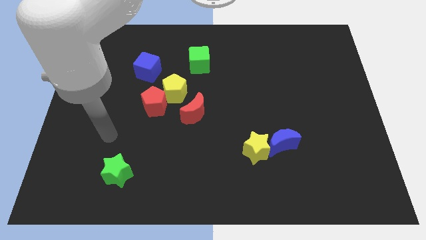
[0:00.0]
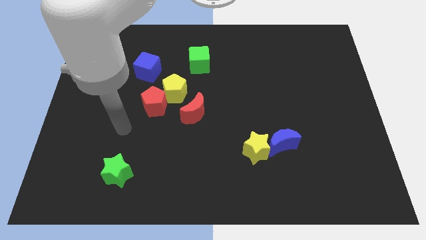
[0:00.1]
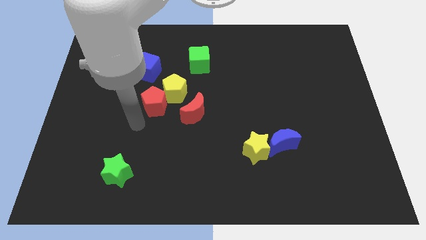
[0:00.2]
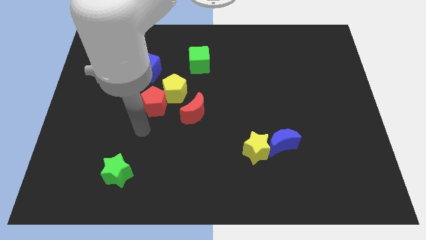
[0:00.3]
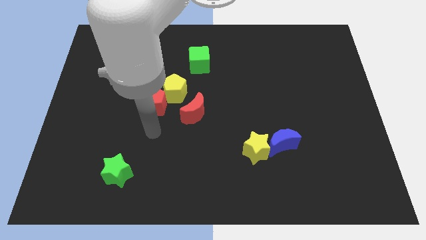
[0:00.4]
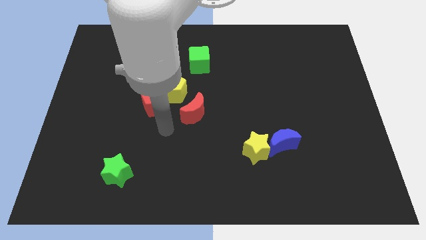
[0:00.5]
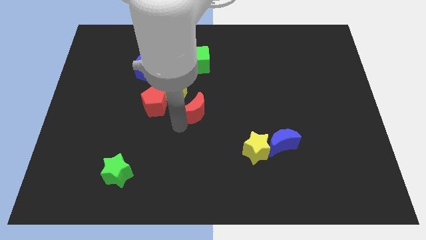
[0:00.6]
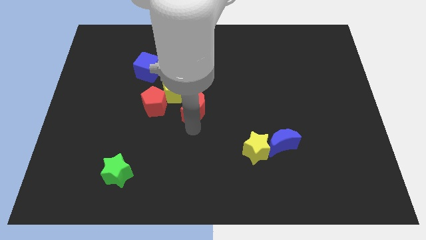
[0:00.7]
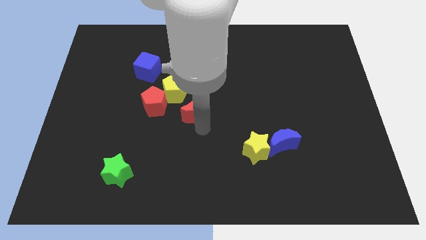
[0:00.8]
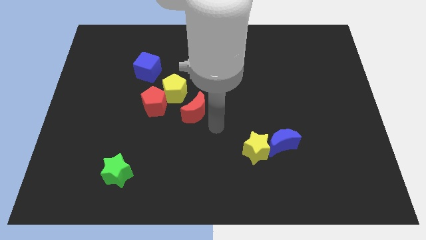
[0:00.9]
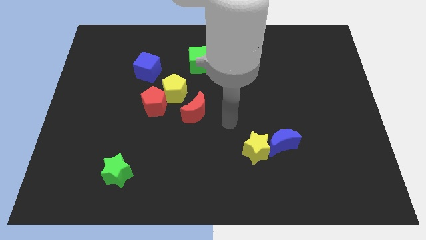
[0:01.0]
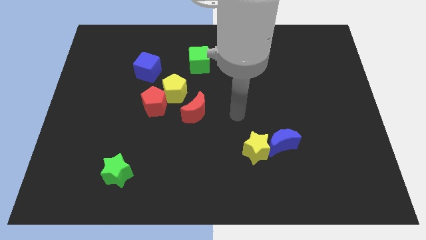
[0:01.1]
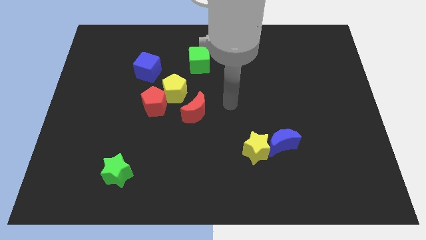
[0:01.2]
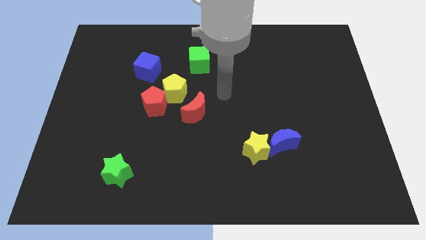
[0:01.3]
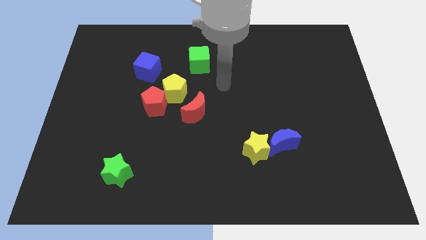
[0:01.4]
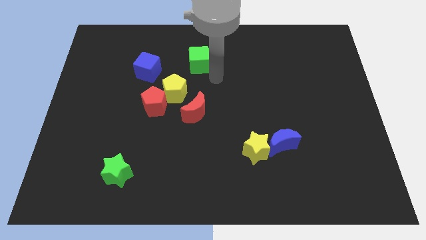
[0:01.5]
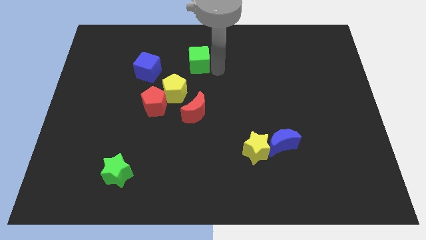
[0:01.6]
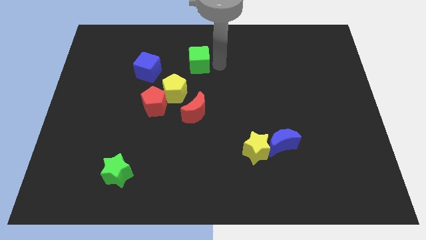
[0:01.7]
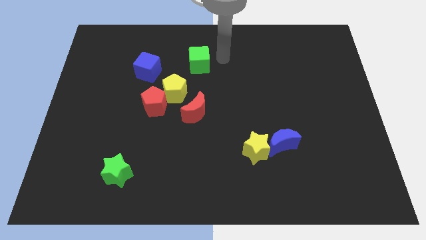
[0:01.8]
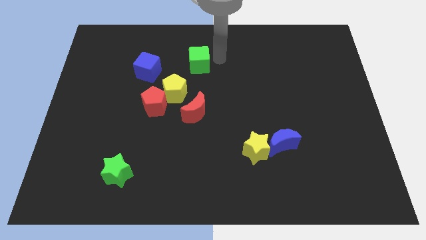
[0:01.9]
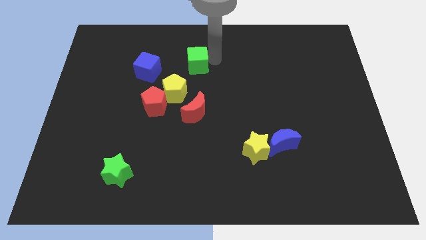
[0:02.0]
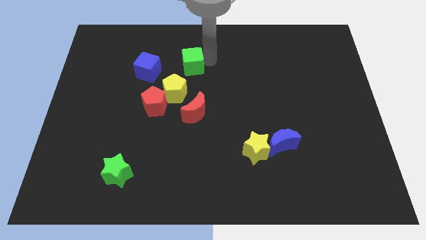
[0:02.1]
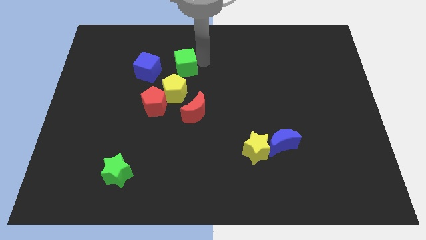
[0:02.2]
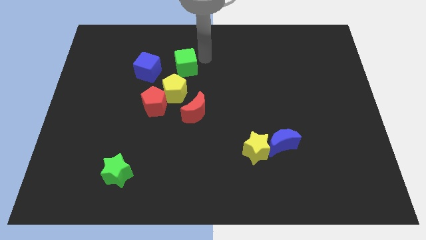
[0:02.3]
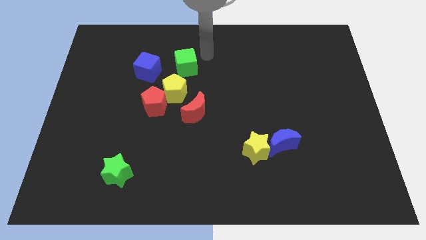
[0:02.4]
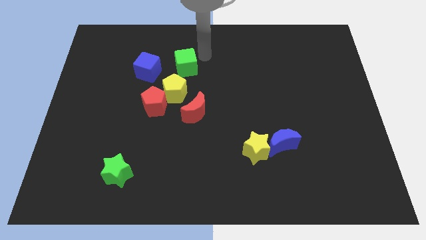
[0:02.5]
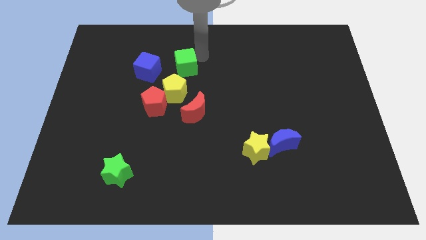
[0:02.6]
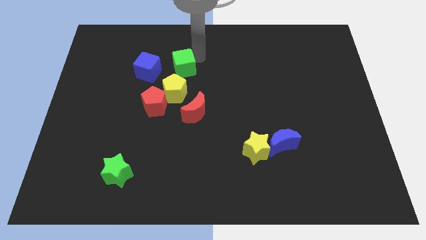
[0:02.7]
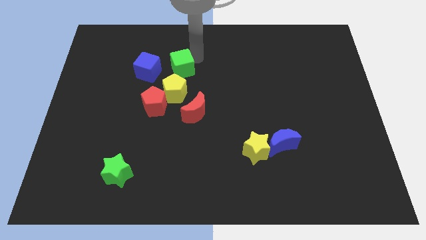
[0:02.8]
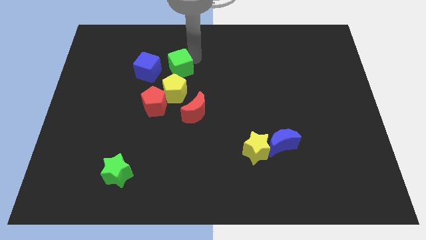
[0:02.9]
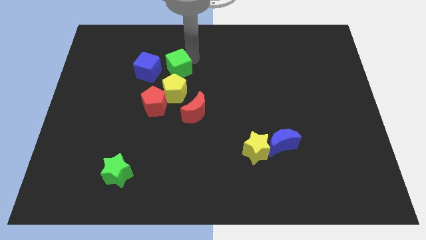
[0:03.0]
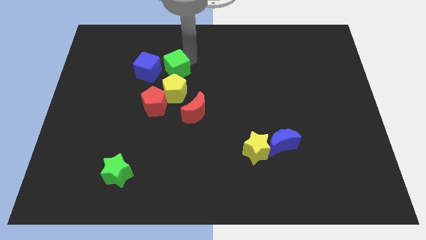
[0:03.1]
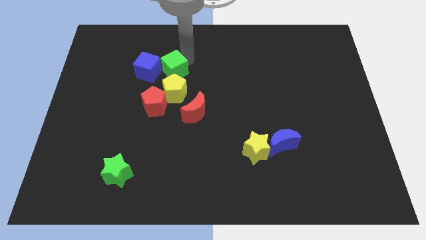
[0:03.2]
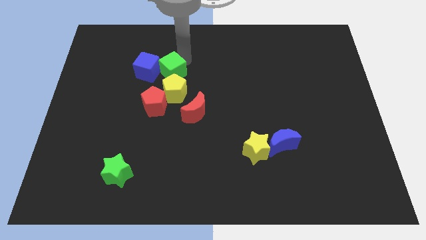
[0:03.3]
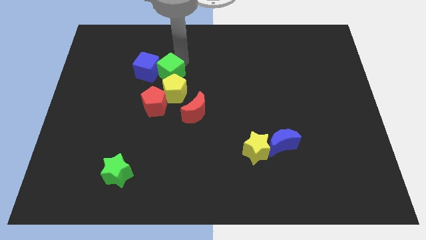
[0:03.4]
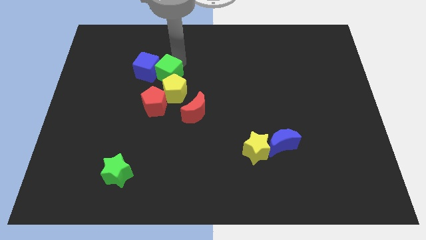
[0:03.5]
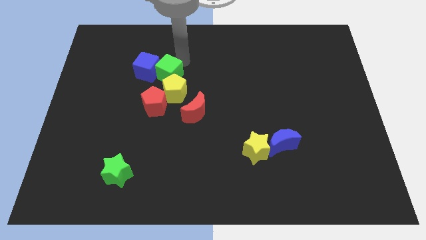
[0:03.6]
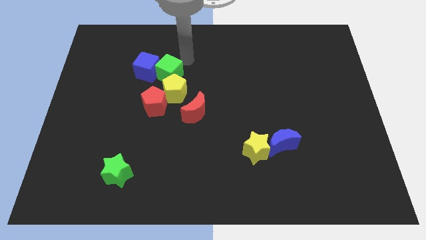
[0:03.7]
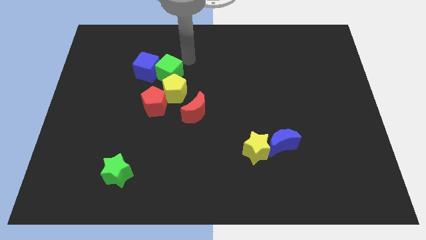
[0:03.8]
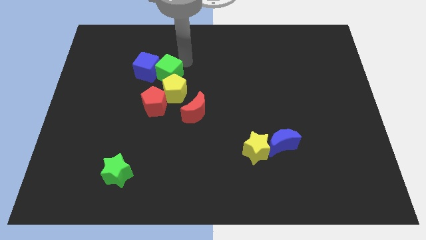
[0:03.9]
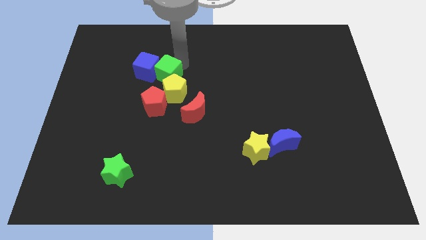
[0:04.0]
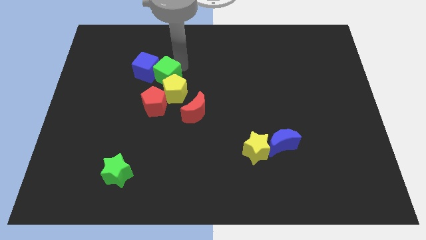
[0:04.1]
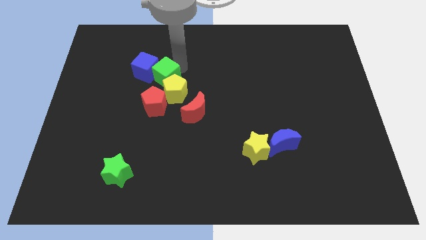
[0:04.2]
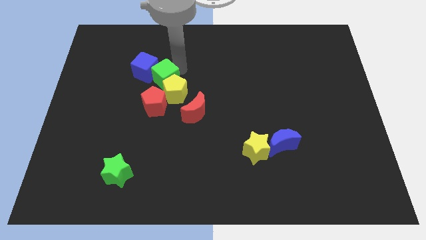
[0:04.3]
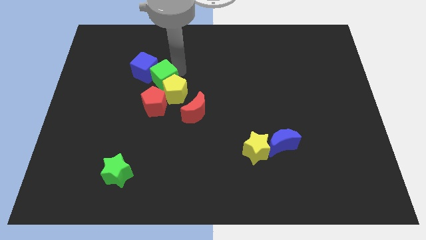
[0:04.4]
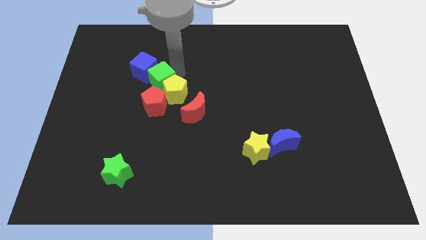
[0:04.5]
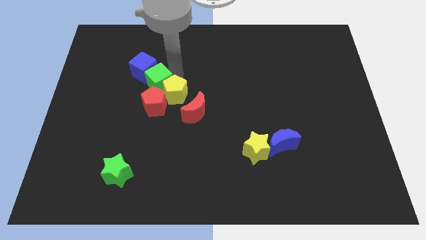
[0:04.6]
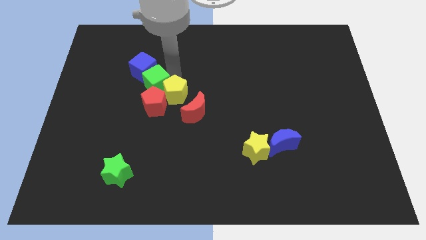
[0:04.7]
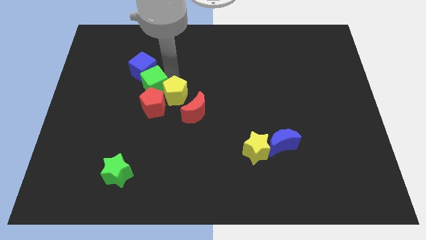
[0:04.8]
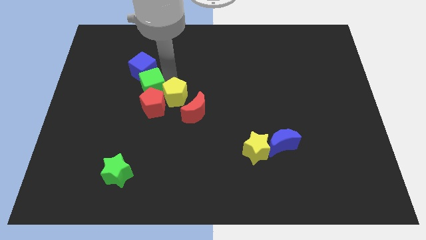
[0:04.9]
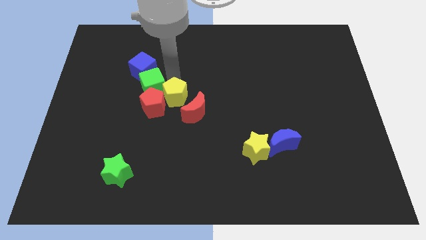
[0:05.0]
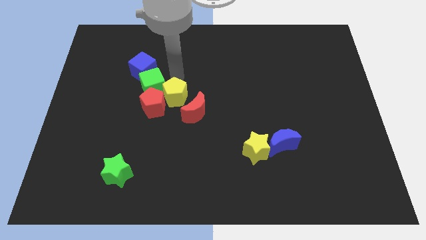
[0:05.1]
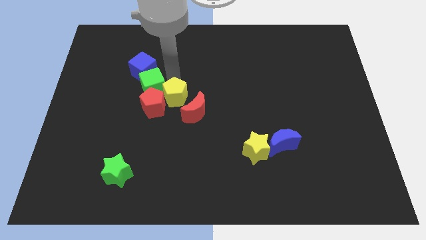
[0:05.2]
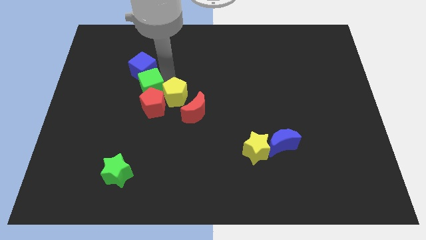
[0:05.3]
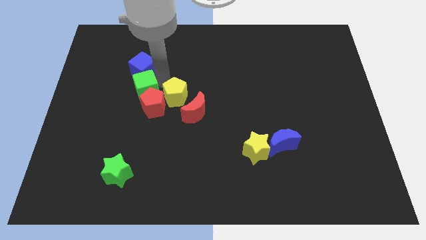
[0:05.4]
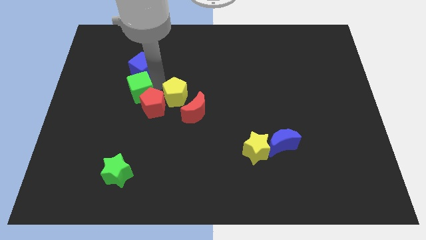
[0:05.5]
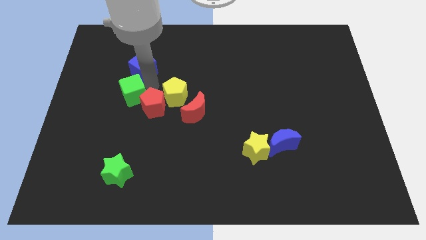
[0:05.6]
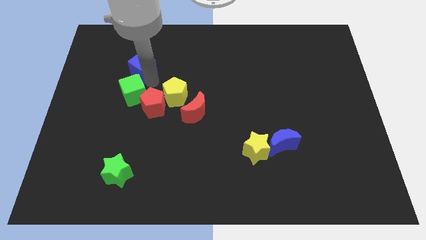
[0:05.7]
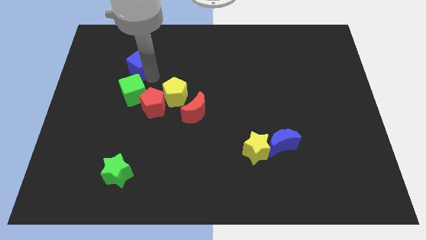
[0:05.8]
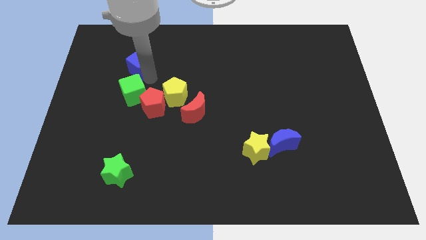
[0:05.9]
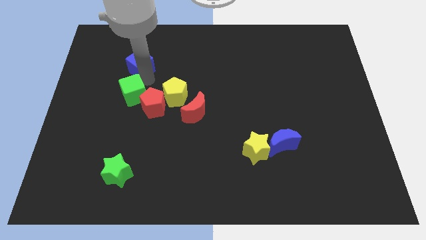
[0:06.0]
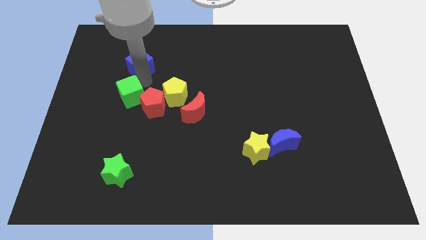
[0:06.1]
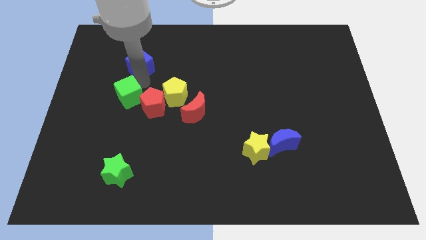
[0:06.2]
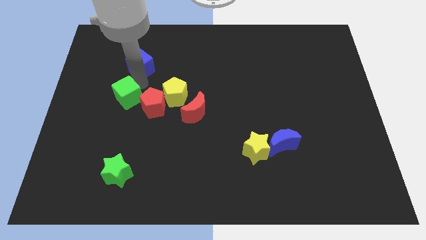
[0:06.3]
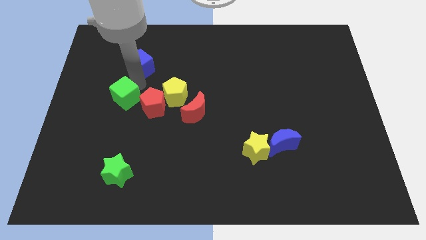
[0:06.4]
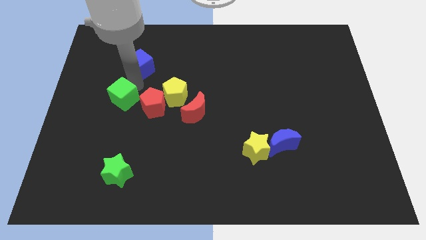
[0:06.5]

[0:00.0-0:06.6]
move the green cube down and then to the left

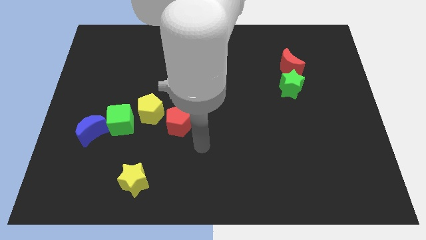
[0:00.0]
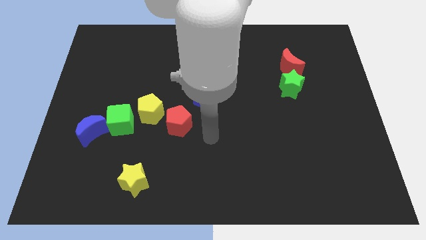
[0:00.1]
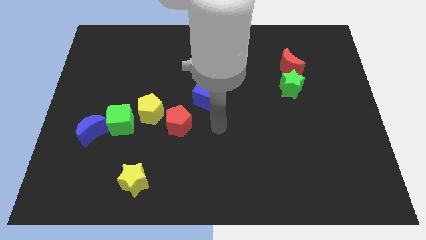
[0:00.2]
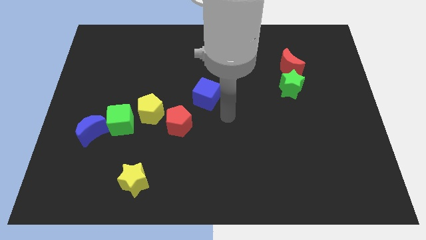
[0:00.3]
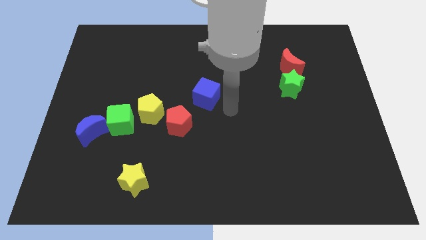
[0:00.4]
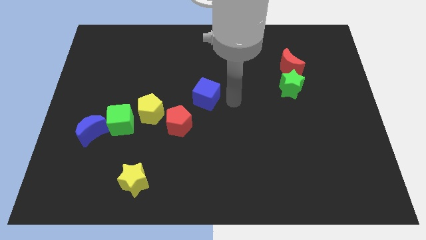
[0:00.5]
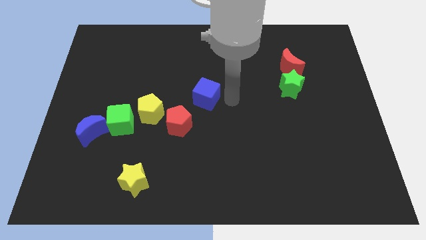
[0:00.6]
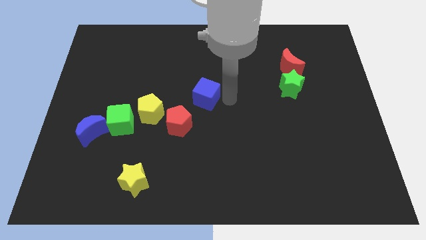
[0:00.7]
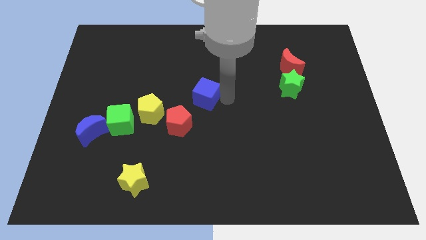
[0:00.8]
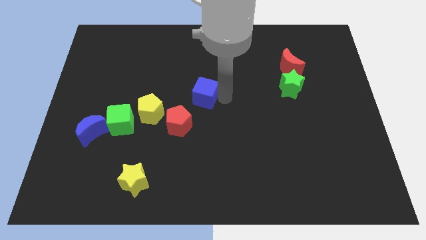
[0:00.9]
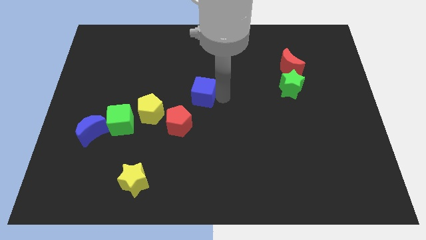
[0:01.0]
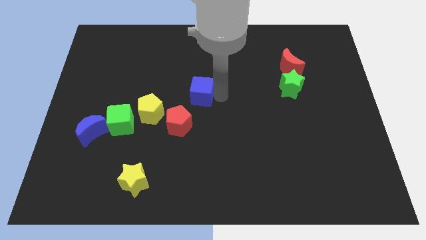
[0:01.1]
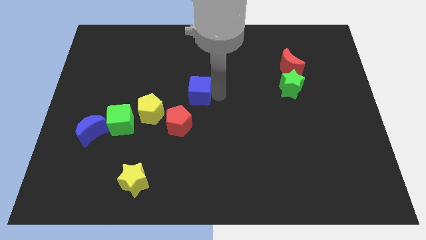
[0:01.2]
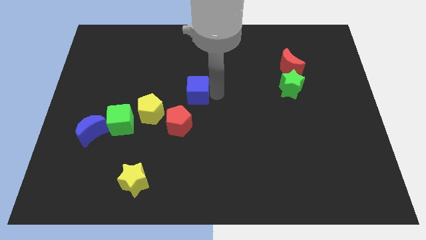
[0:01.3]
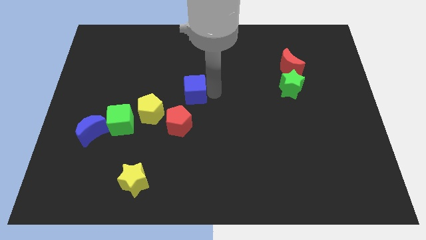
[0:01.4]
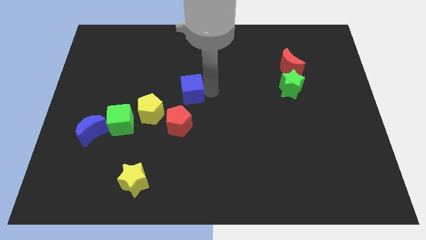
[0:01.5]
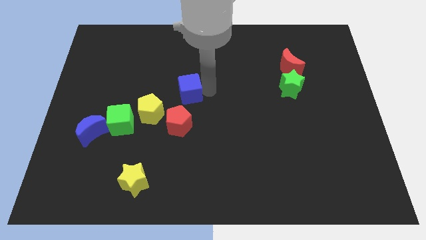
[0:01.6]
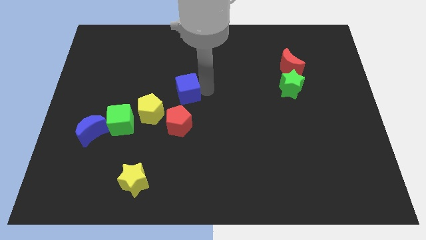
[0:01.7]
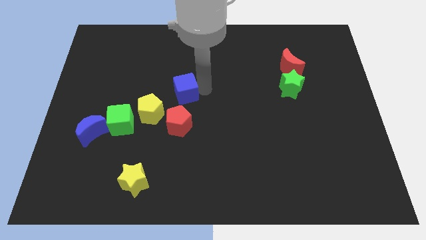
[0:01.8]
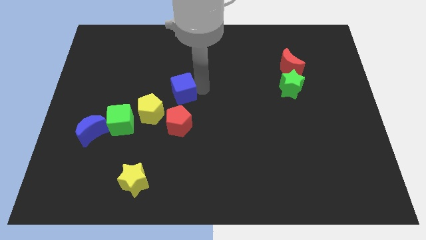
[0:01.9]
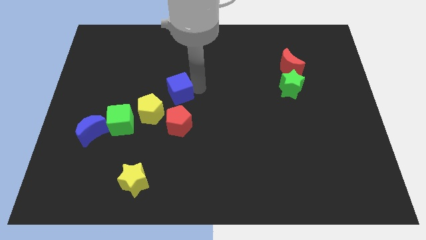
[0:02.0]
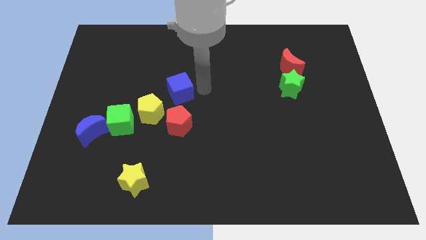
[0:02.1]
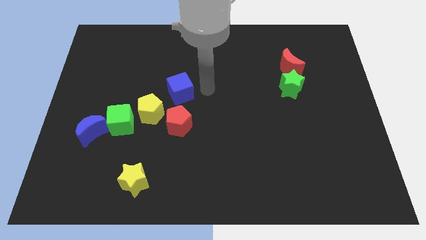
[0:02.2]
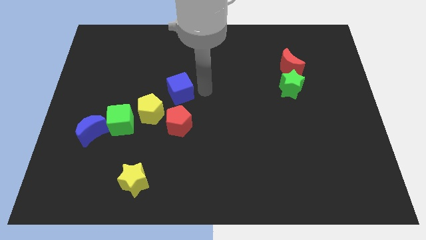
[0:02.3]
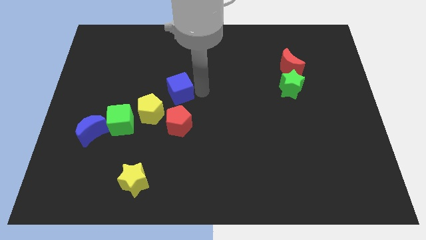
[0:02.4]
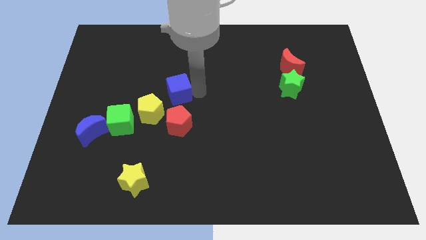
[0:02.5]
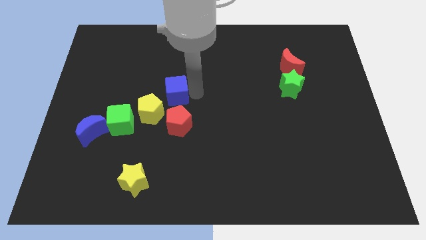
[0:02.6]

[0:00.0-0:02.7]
push the blue cube to the left a little bit
